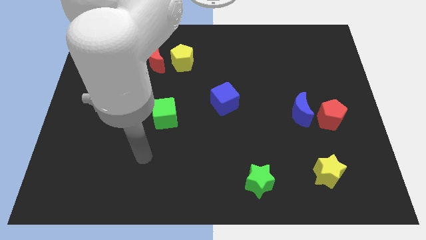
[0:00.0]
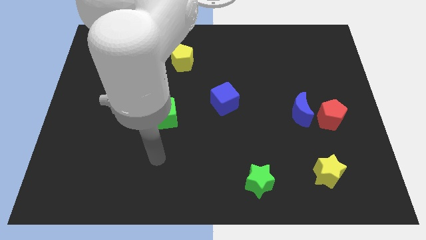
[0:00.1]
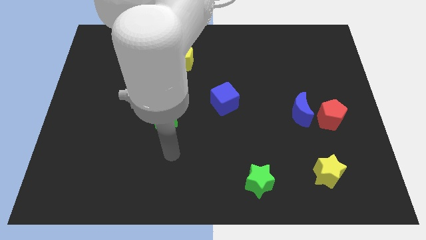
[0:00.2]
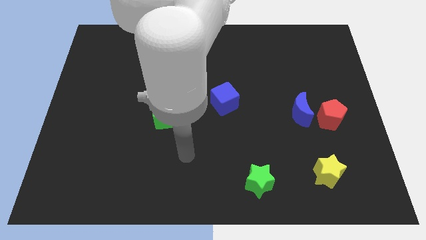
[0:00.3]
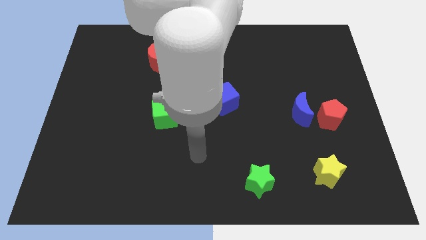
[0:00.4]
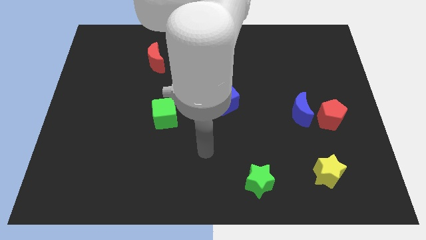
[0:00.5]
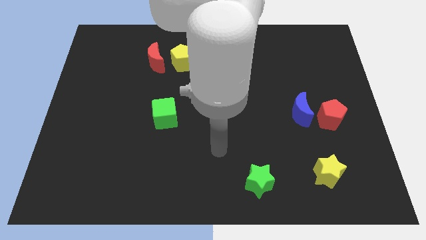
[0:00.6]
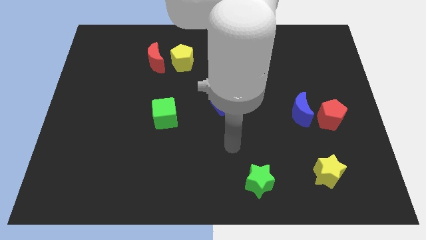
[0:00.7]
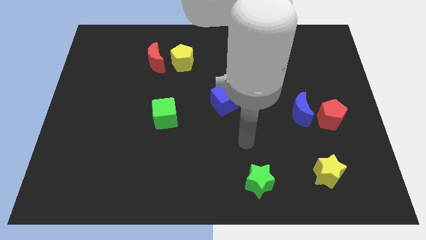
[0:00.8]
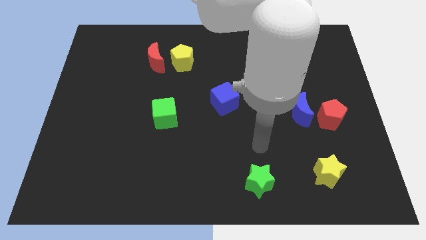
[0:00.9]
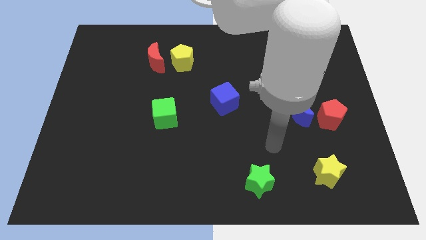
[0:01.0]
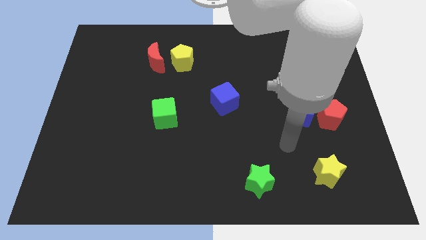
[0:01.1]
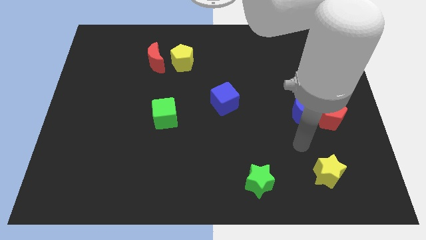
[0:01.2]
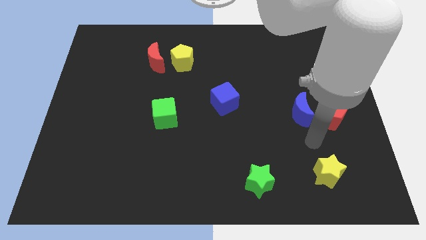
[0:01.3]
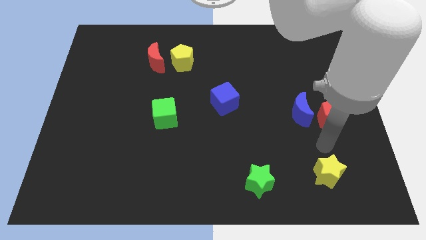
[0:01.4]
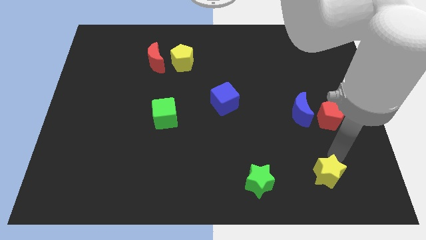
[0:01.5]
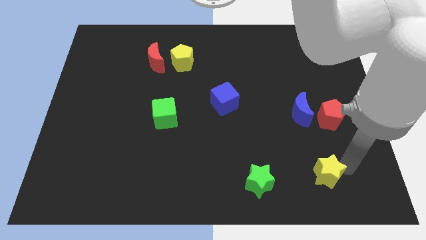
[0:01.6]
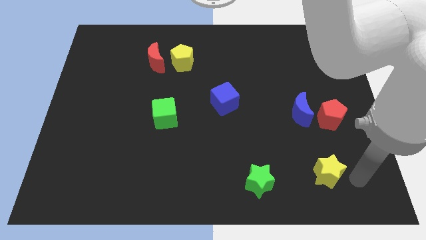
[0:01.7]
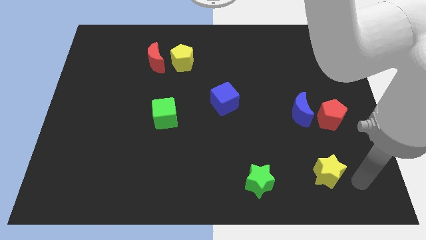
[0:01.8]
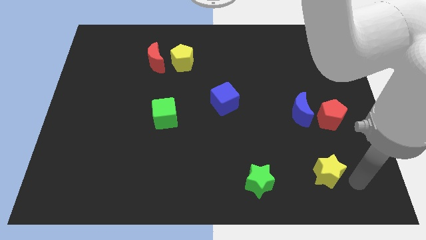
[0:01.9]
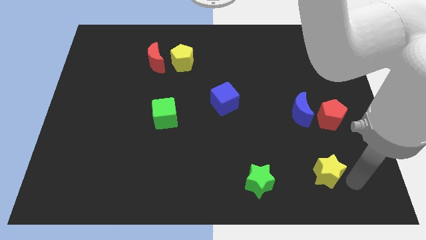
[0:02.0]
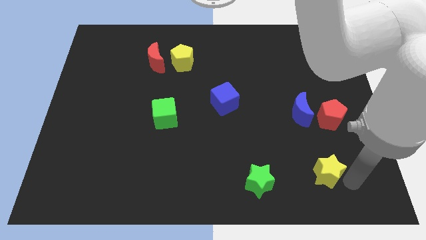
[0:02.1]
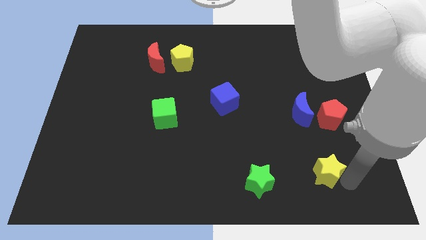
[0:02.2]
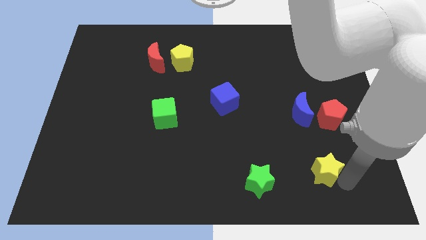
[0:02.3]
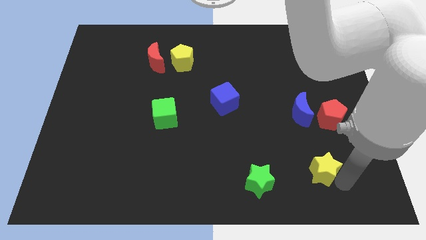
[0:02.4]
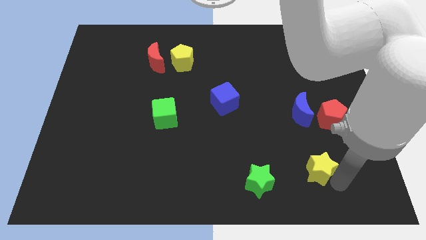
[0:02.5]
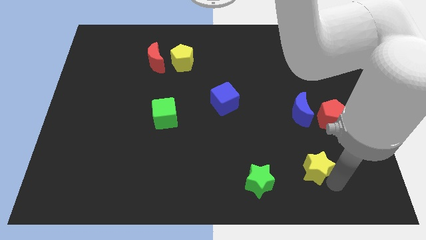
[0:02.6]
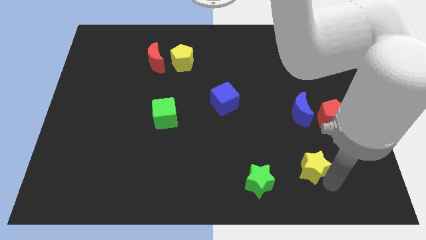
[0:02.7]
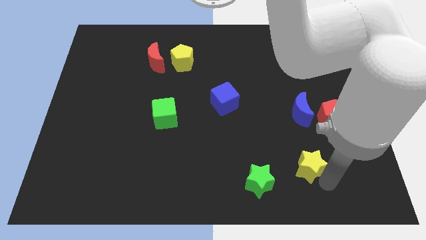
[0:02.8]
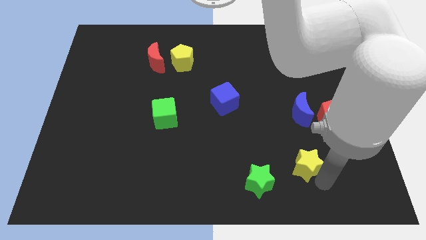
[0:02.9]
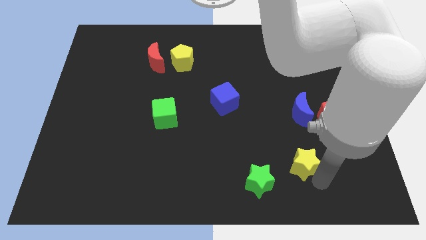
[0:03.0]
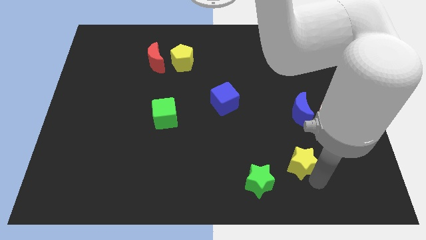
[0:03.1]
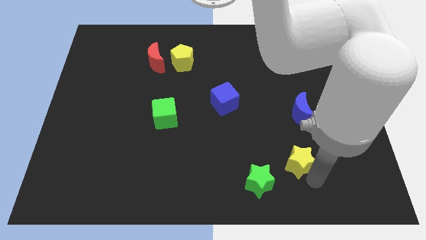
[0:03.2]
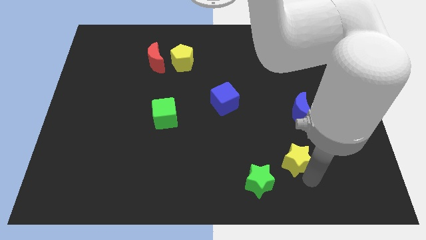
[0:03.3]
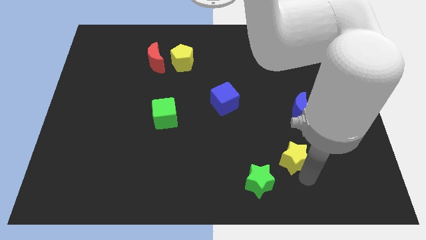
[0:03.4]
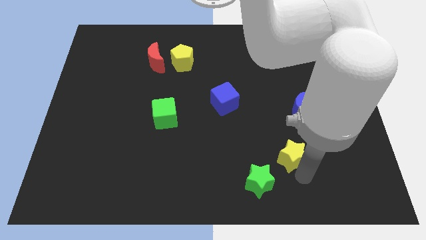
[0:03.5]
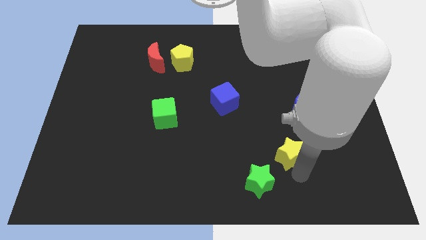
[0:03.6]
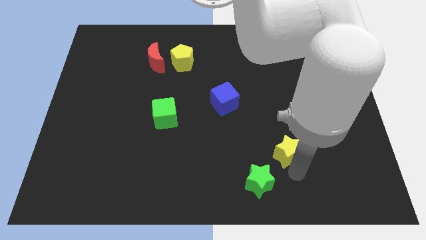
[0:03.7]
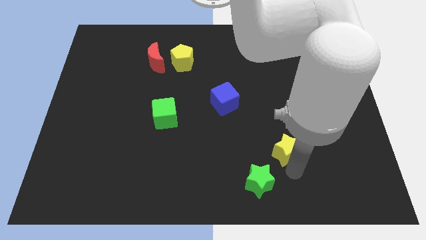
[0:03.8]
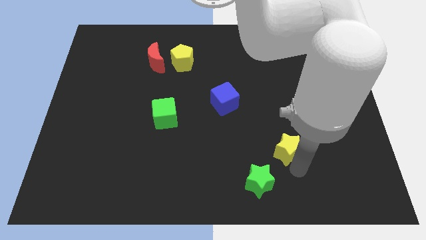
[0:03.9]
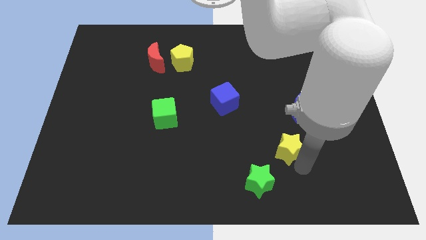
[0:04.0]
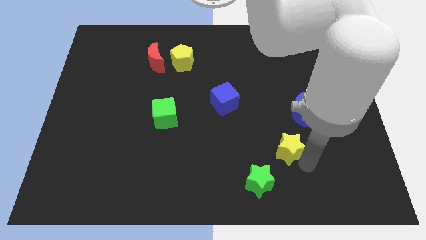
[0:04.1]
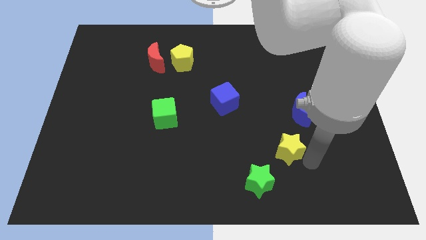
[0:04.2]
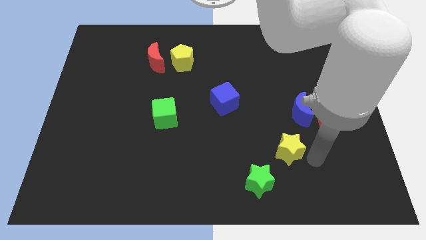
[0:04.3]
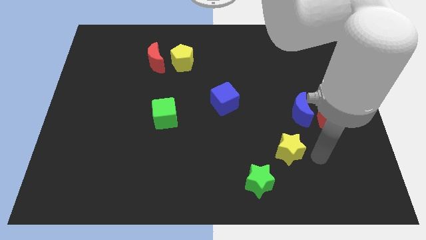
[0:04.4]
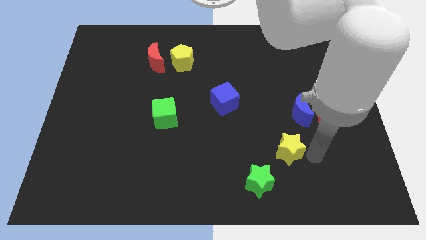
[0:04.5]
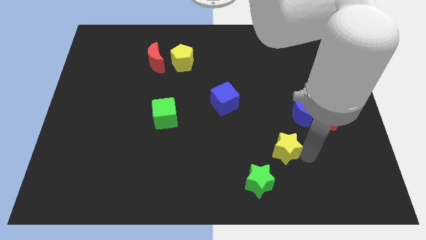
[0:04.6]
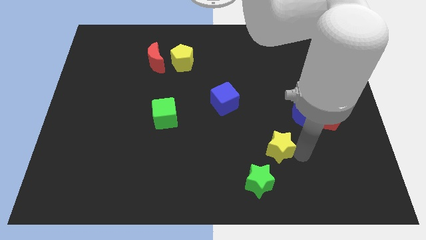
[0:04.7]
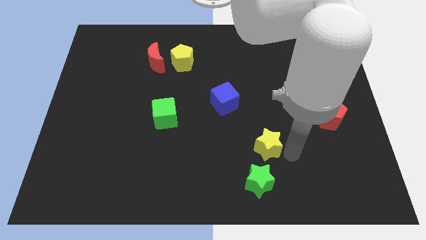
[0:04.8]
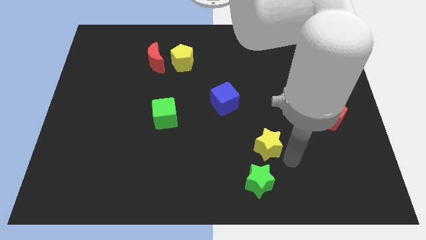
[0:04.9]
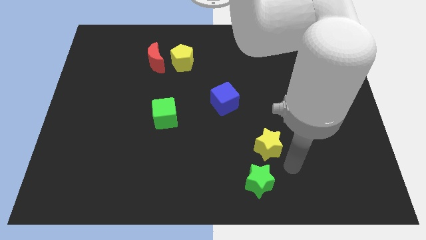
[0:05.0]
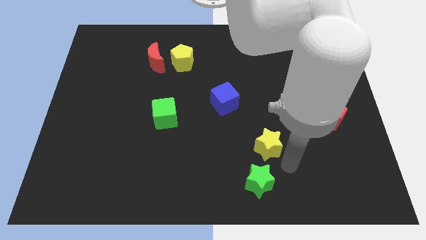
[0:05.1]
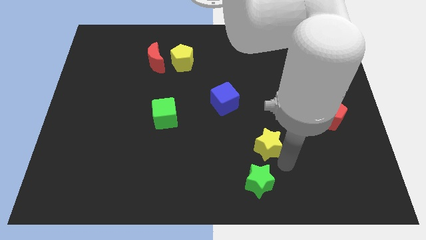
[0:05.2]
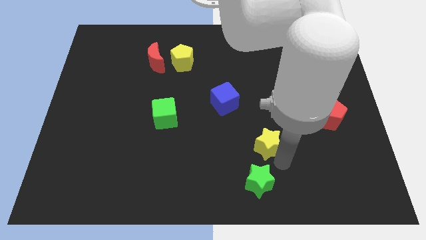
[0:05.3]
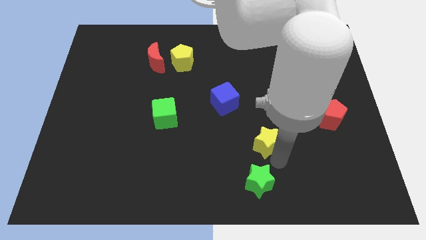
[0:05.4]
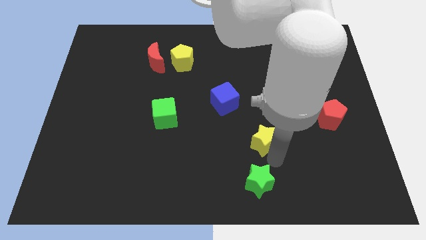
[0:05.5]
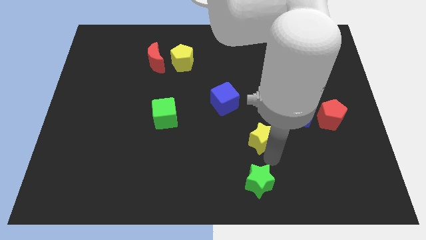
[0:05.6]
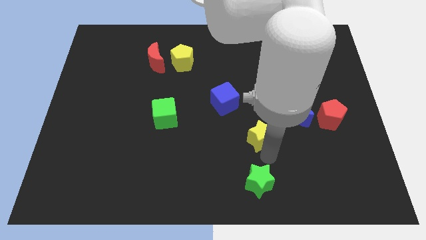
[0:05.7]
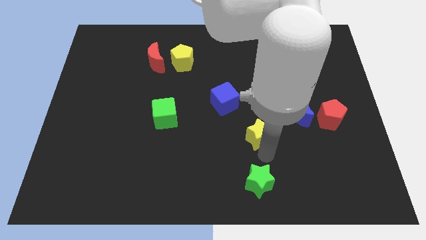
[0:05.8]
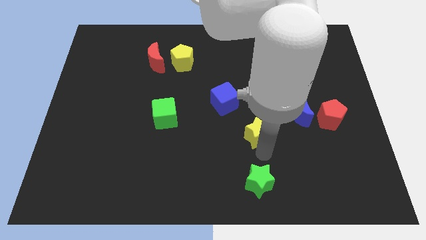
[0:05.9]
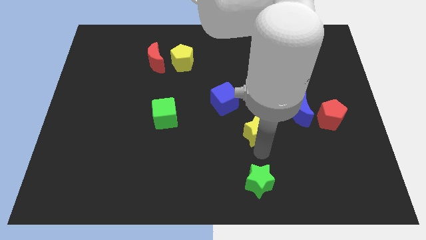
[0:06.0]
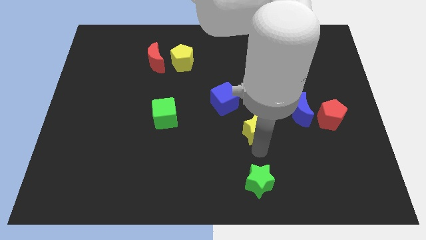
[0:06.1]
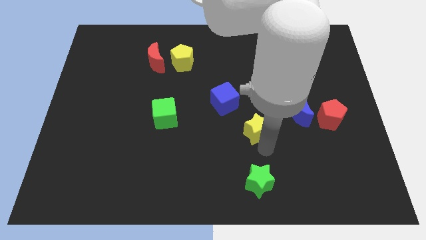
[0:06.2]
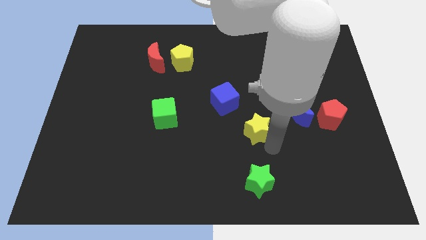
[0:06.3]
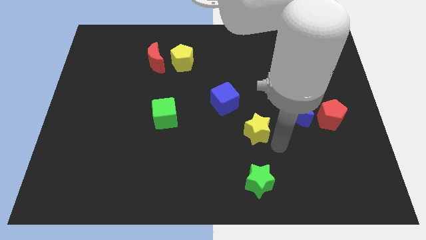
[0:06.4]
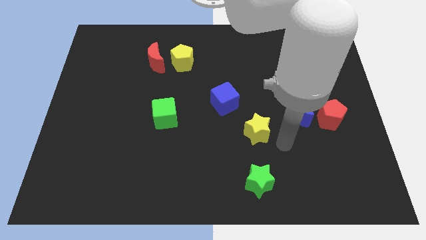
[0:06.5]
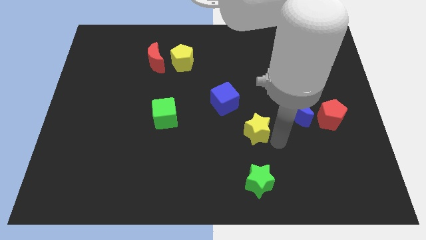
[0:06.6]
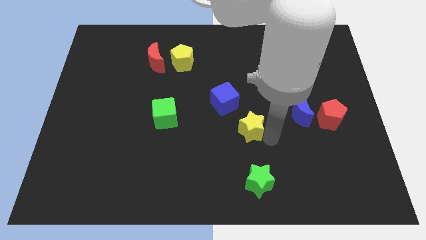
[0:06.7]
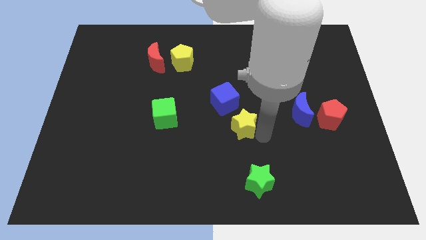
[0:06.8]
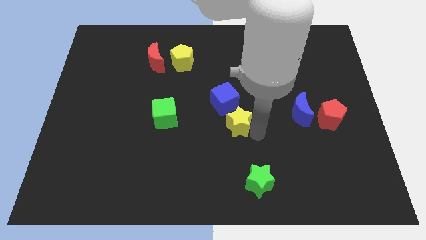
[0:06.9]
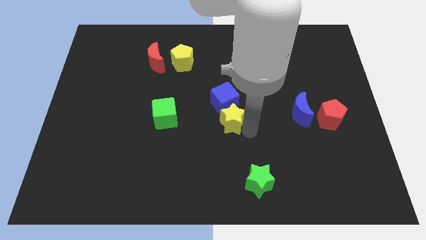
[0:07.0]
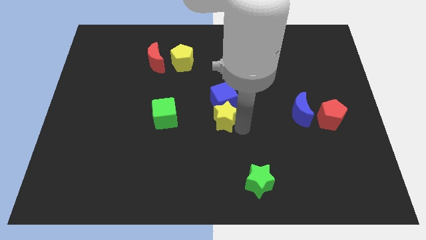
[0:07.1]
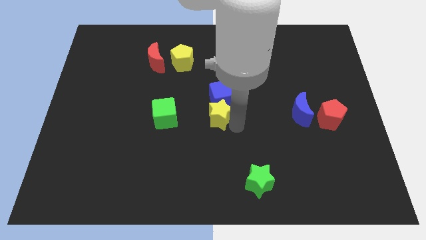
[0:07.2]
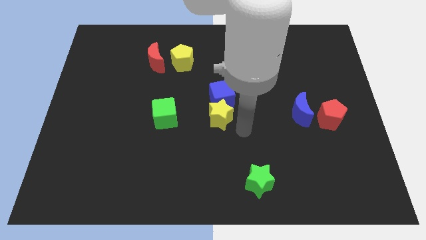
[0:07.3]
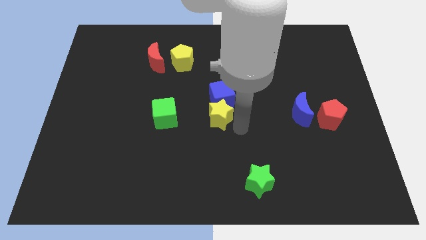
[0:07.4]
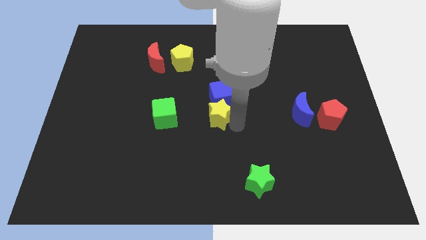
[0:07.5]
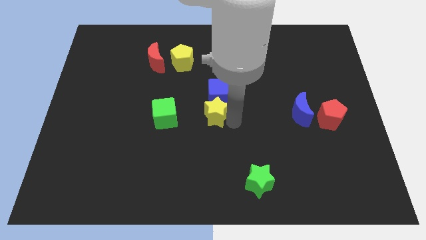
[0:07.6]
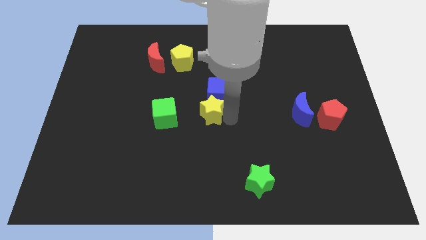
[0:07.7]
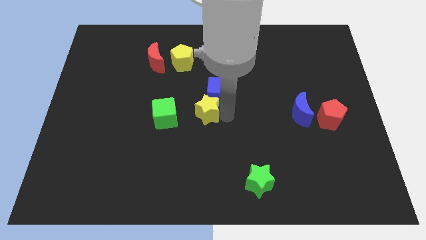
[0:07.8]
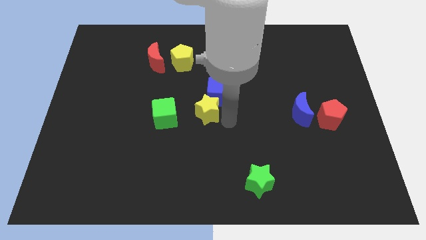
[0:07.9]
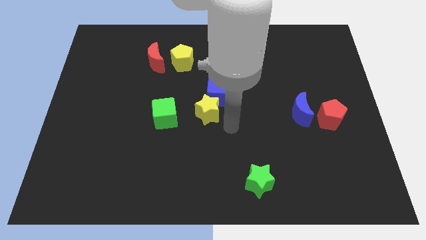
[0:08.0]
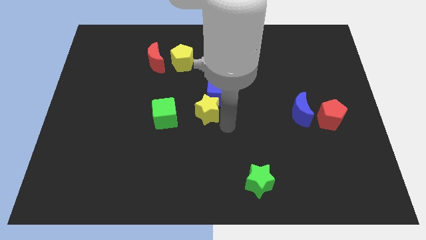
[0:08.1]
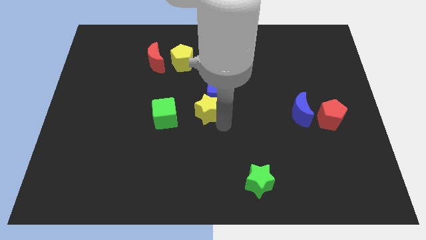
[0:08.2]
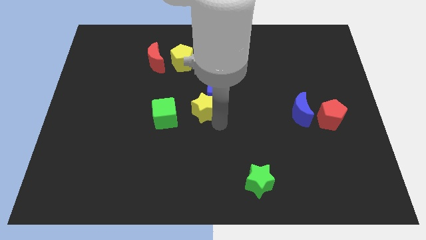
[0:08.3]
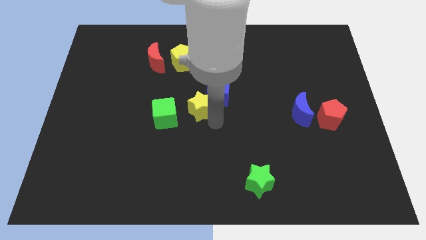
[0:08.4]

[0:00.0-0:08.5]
put the yellow star to the left side of the blue cube
